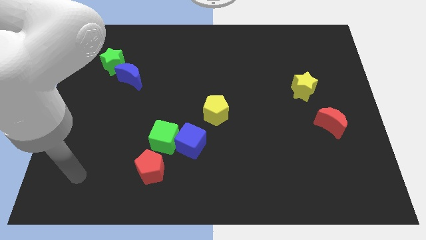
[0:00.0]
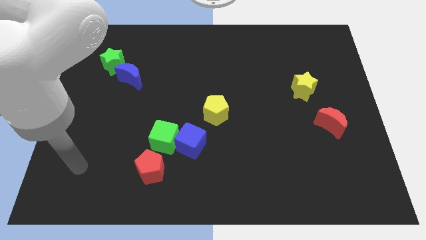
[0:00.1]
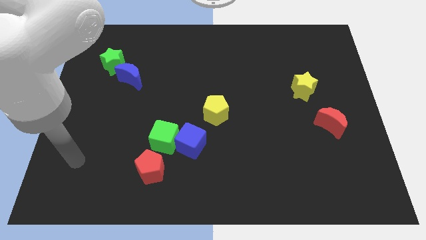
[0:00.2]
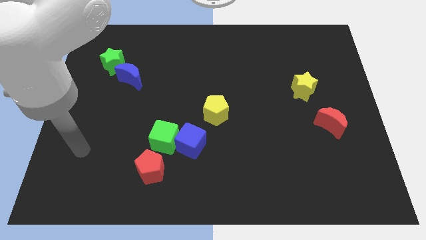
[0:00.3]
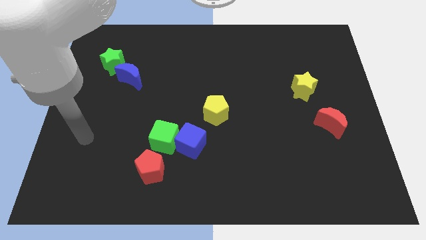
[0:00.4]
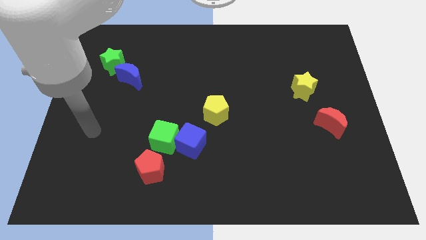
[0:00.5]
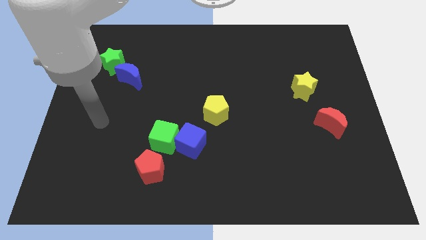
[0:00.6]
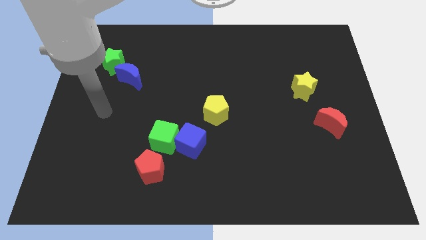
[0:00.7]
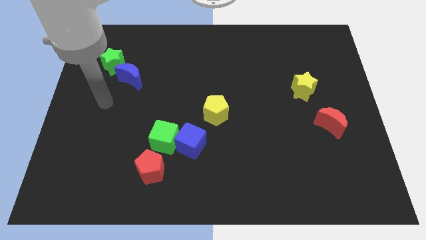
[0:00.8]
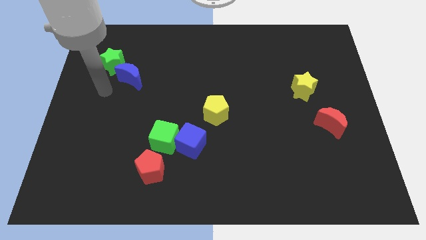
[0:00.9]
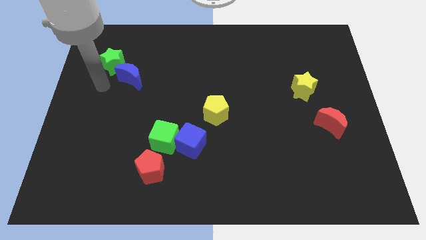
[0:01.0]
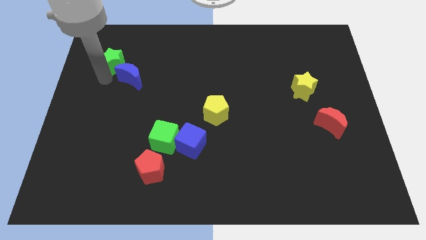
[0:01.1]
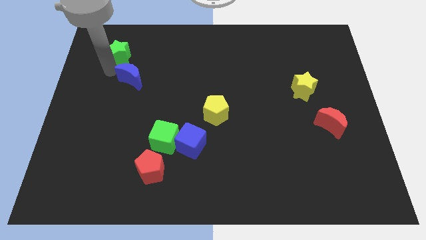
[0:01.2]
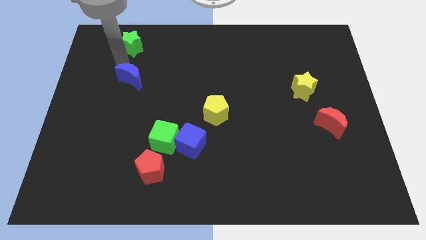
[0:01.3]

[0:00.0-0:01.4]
pull the blue moon apart from the green star

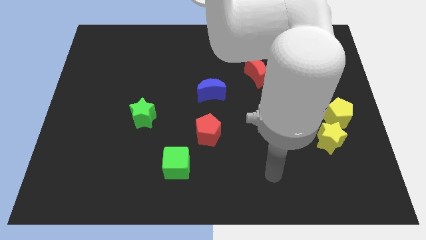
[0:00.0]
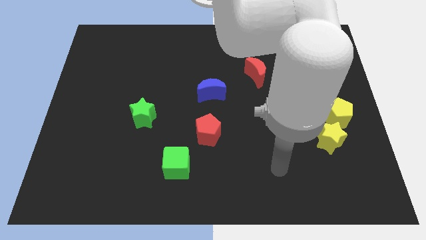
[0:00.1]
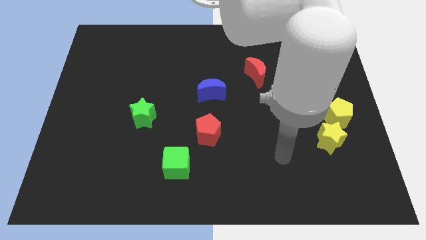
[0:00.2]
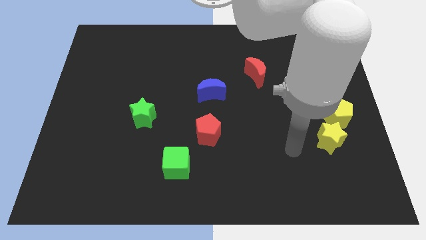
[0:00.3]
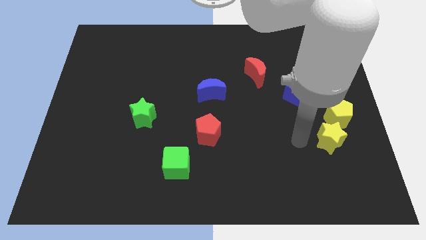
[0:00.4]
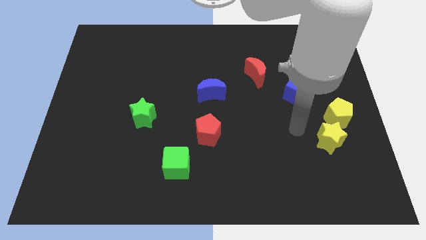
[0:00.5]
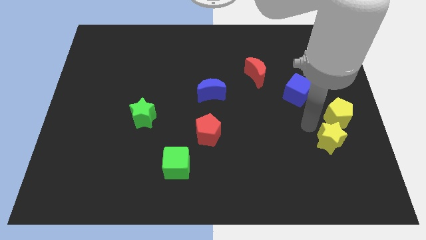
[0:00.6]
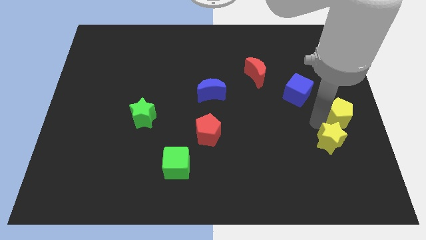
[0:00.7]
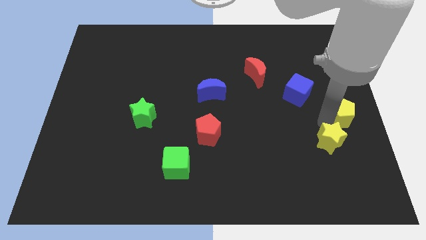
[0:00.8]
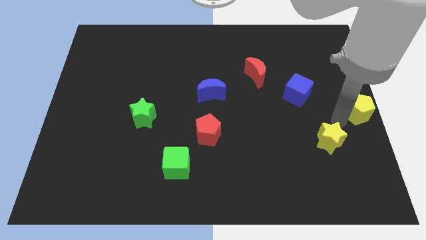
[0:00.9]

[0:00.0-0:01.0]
move the yellow star away from the yellow pentagon

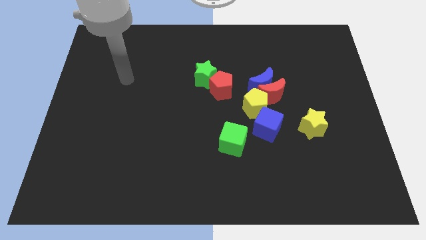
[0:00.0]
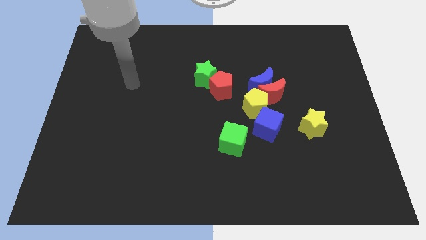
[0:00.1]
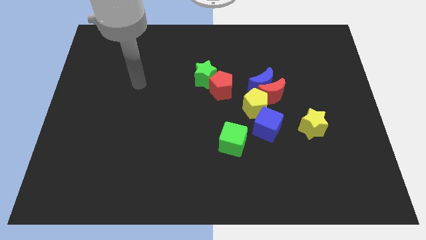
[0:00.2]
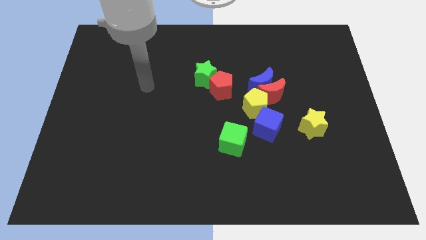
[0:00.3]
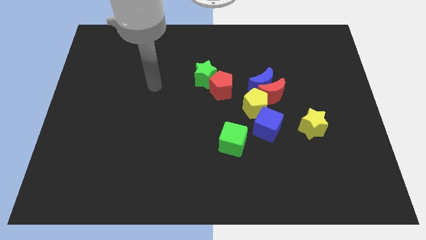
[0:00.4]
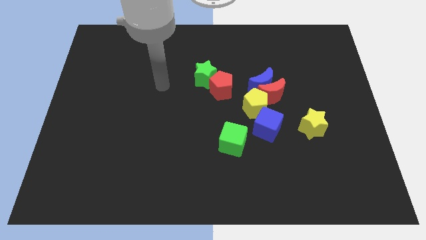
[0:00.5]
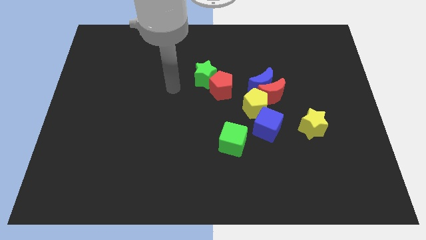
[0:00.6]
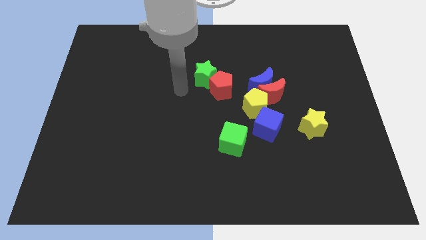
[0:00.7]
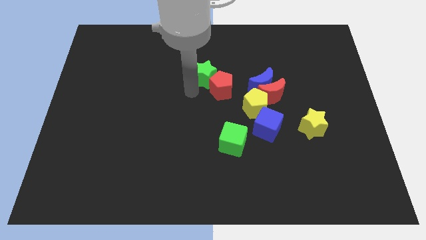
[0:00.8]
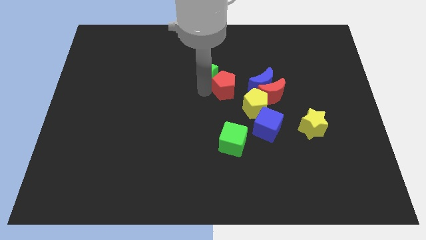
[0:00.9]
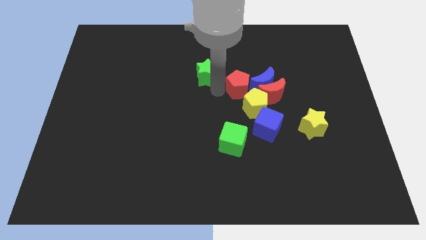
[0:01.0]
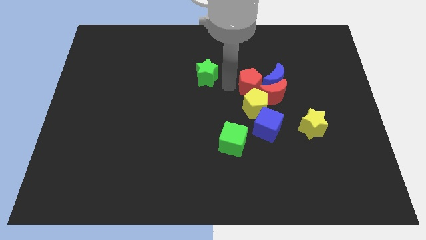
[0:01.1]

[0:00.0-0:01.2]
move the green star away from the red pentagon

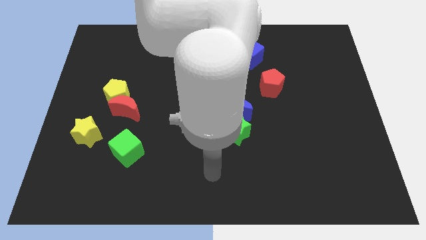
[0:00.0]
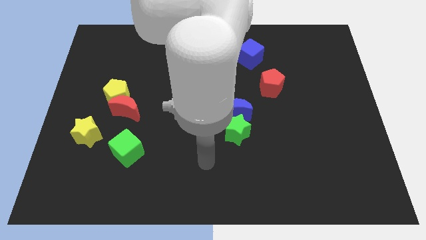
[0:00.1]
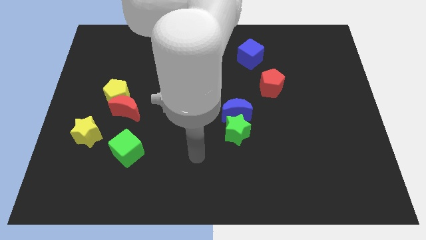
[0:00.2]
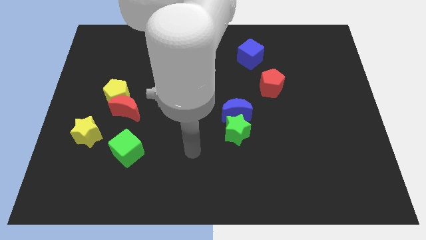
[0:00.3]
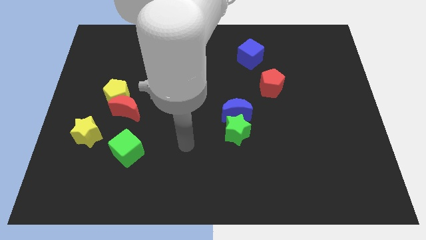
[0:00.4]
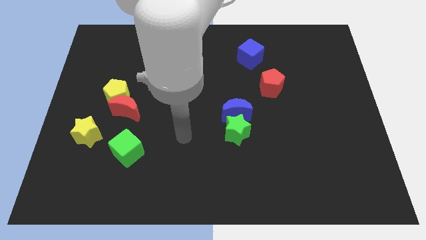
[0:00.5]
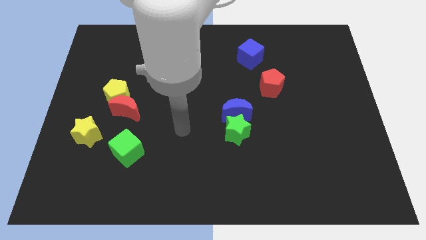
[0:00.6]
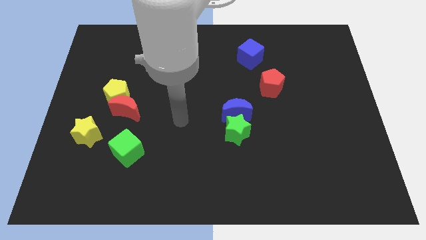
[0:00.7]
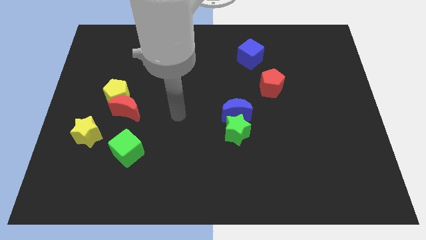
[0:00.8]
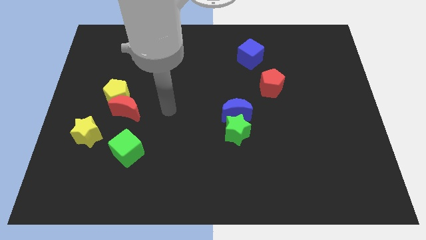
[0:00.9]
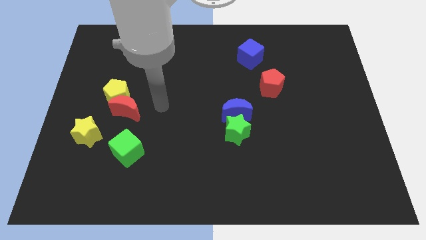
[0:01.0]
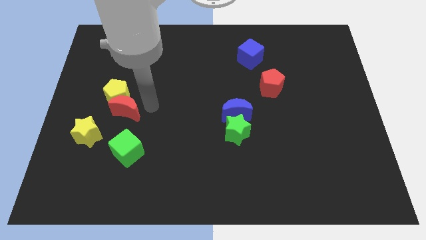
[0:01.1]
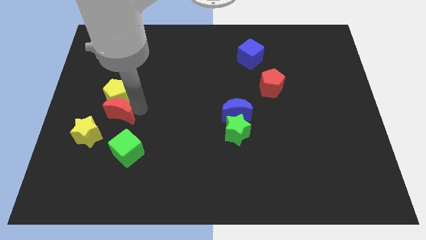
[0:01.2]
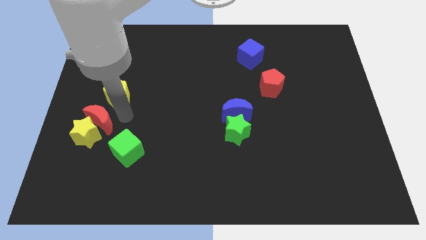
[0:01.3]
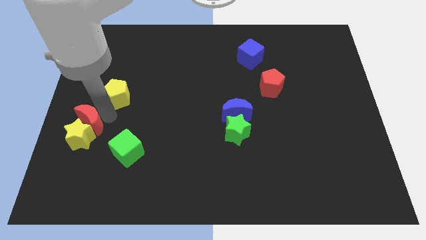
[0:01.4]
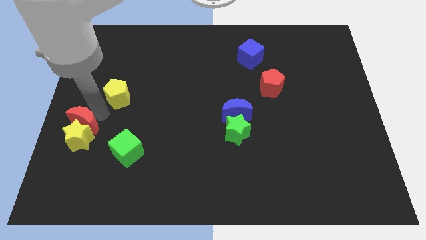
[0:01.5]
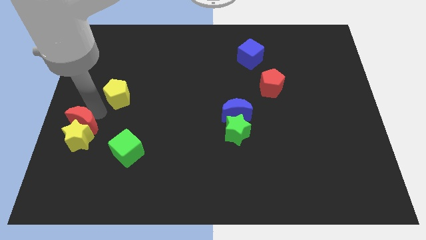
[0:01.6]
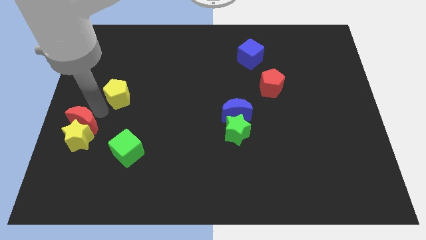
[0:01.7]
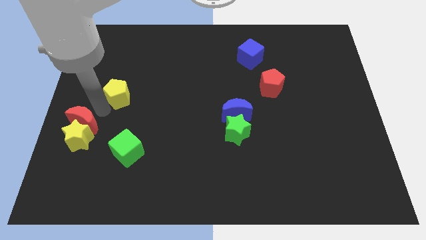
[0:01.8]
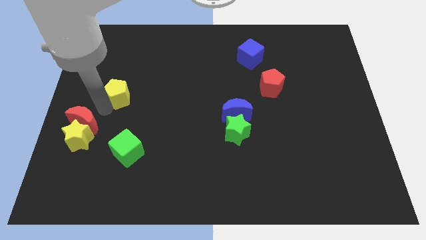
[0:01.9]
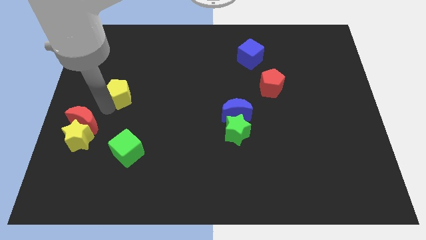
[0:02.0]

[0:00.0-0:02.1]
separate the yellow pentagon from the red moon

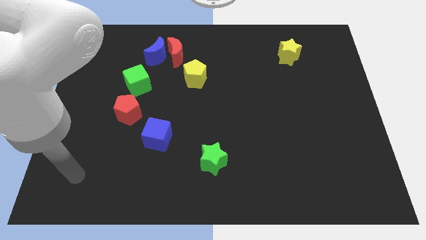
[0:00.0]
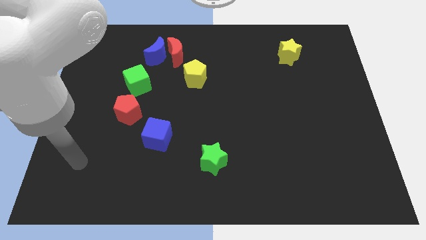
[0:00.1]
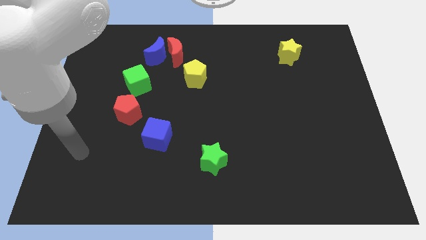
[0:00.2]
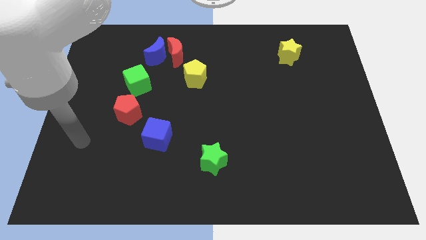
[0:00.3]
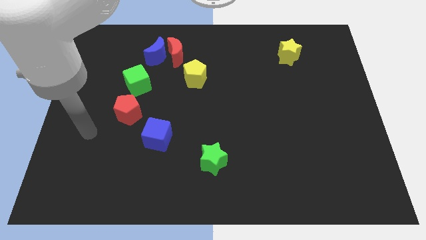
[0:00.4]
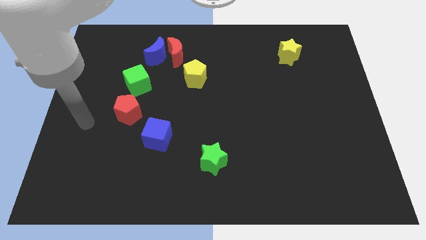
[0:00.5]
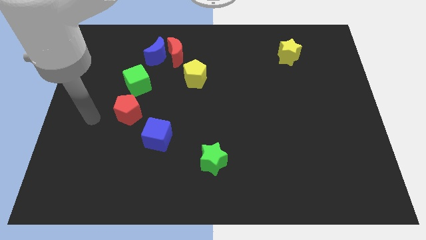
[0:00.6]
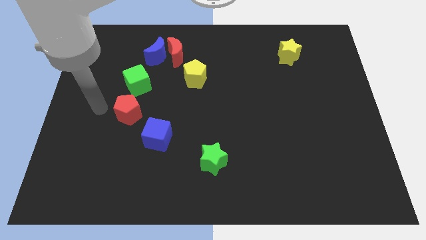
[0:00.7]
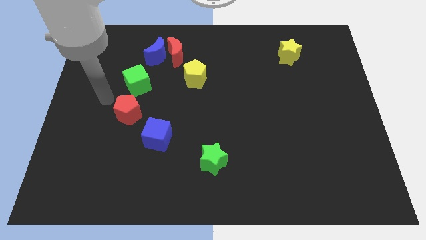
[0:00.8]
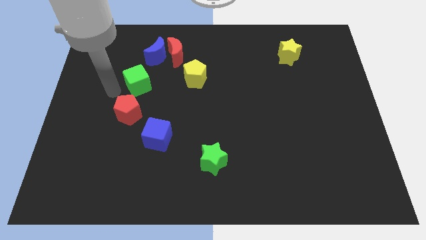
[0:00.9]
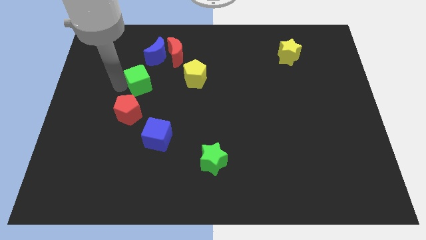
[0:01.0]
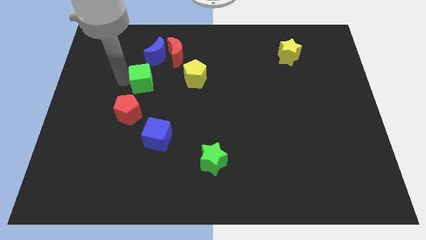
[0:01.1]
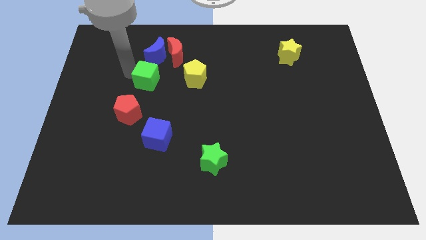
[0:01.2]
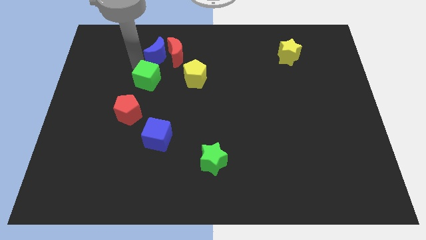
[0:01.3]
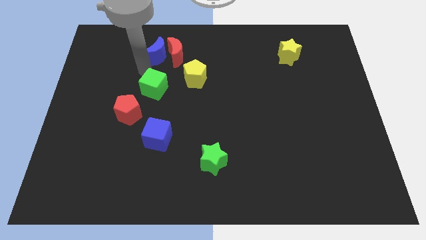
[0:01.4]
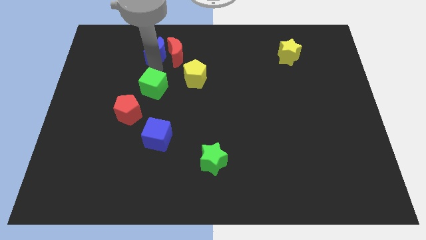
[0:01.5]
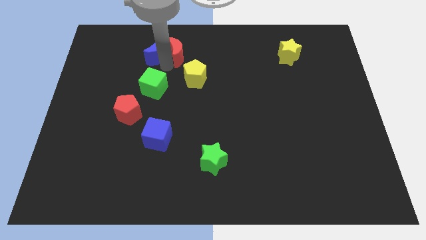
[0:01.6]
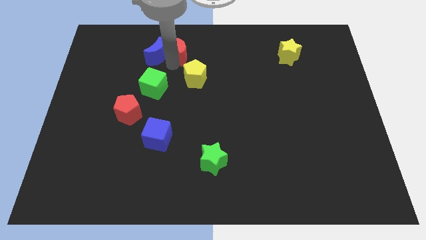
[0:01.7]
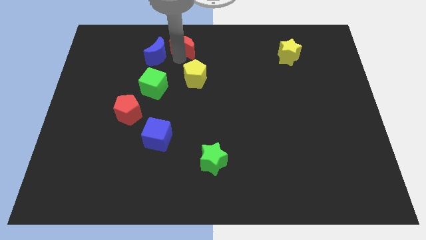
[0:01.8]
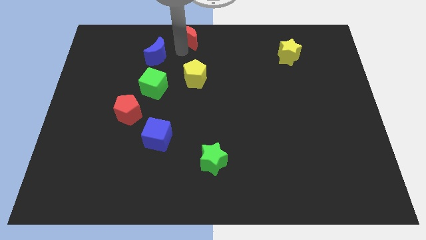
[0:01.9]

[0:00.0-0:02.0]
pull the blue moon apart from the red moon

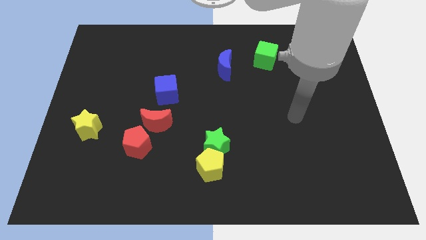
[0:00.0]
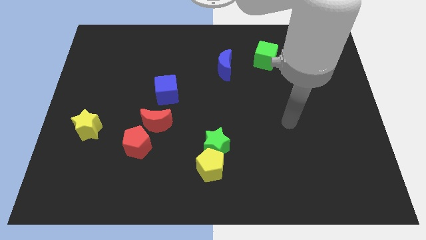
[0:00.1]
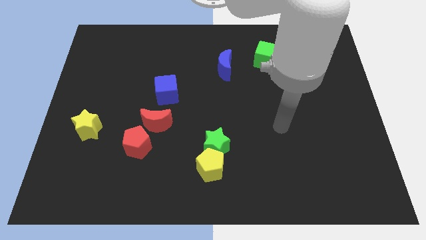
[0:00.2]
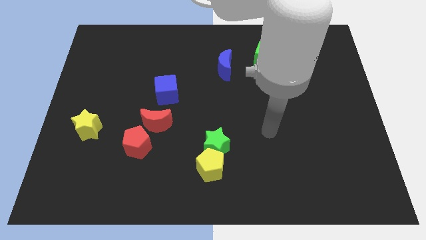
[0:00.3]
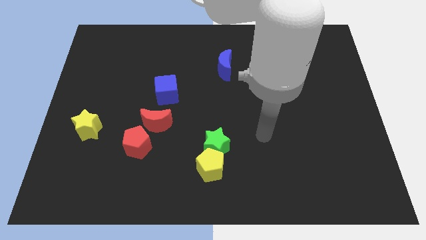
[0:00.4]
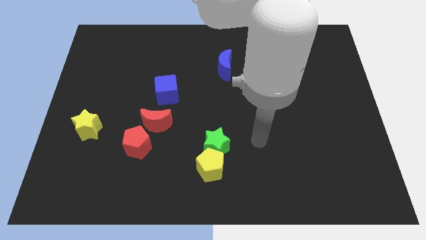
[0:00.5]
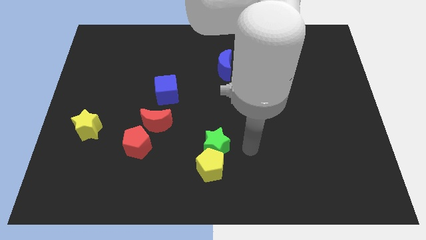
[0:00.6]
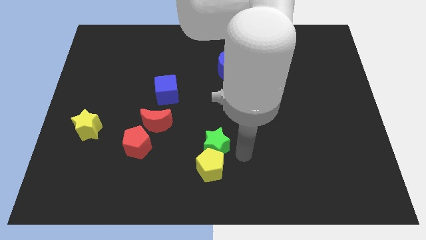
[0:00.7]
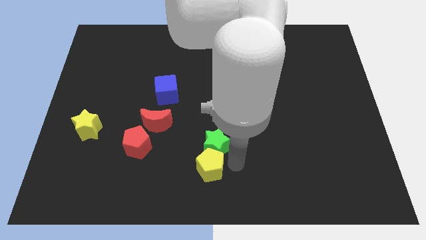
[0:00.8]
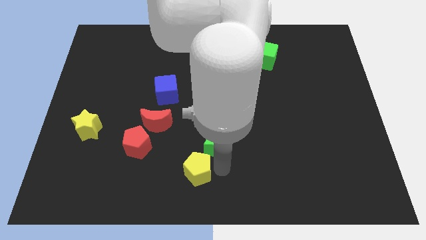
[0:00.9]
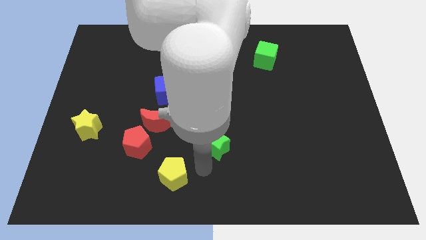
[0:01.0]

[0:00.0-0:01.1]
move the green star away from the yellow pentagon

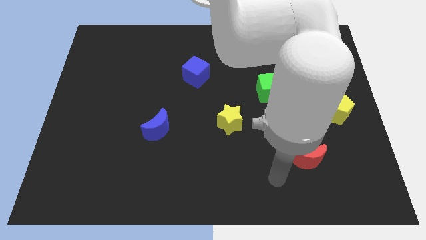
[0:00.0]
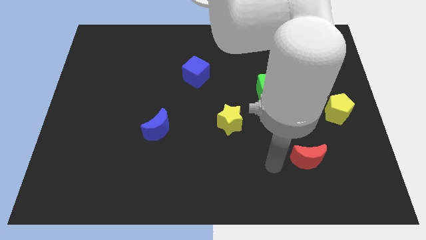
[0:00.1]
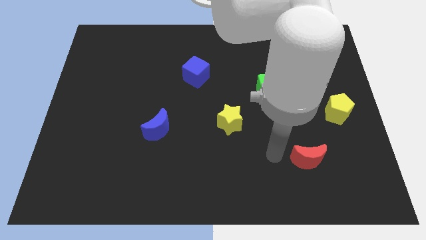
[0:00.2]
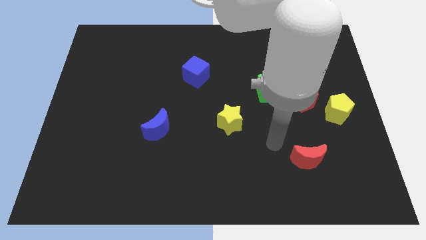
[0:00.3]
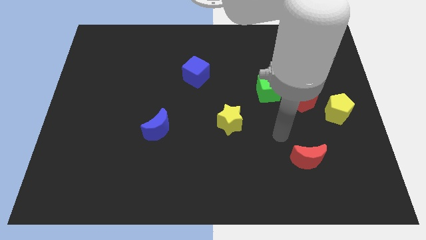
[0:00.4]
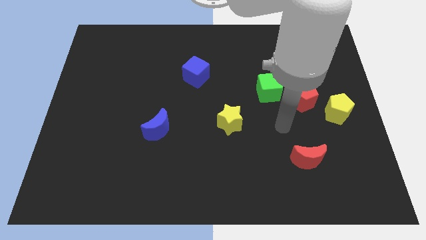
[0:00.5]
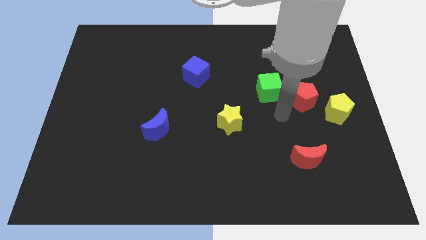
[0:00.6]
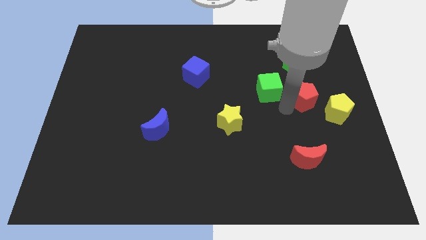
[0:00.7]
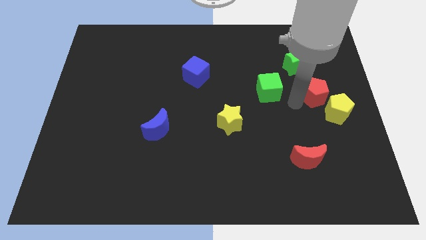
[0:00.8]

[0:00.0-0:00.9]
move the green cube away from the red pentagon
